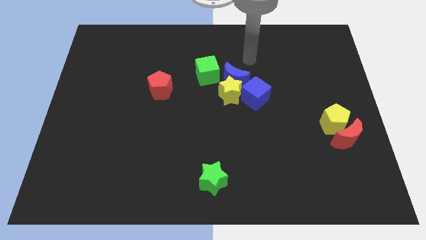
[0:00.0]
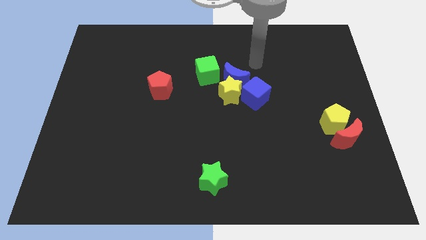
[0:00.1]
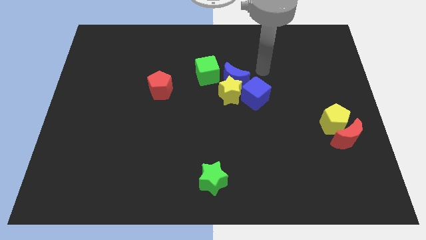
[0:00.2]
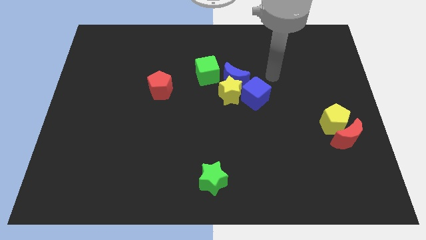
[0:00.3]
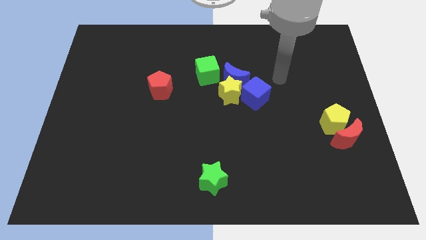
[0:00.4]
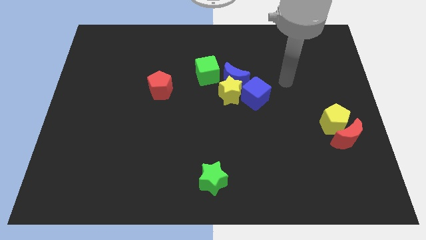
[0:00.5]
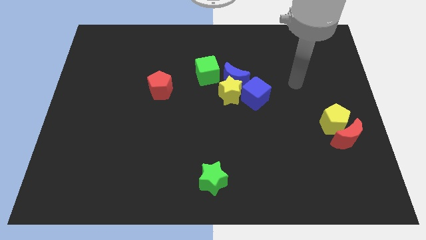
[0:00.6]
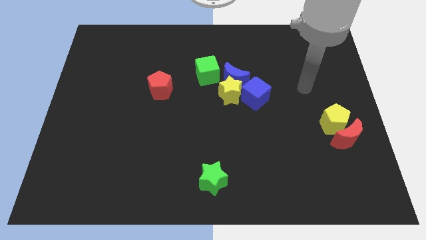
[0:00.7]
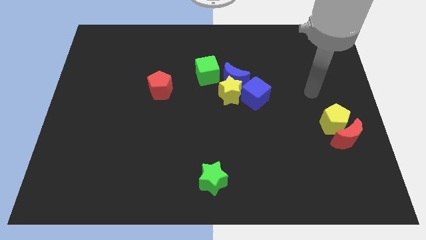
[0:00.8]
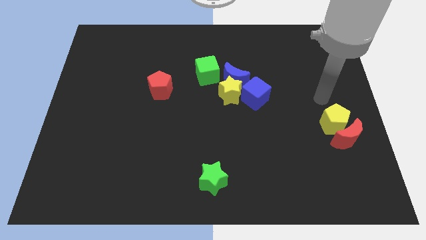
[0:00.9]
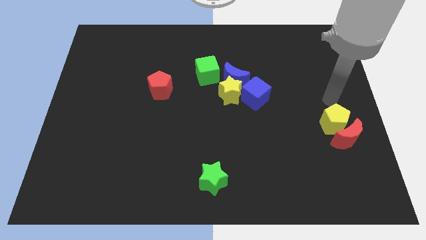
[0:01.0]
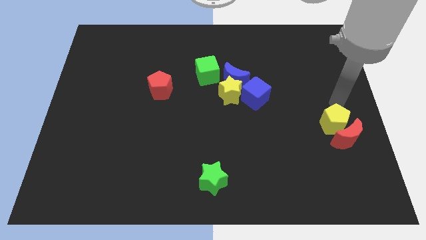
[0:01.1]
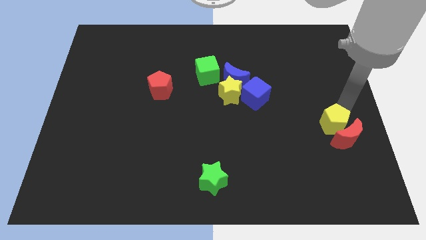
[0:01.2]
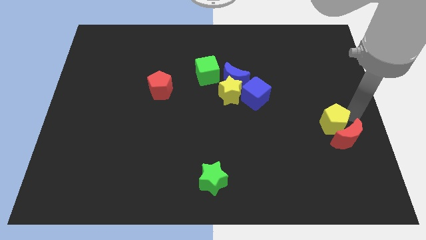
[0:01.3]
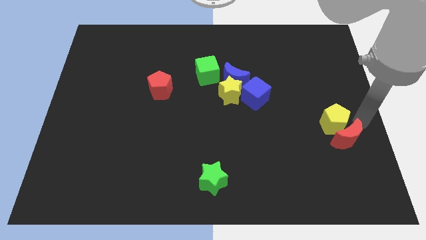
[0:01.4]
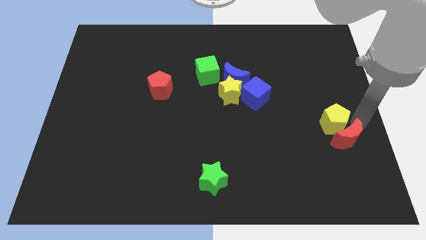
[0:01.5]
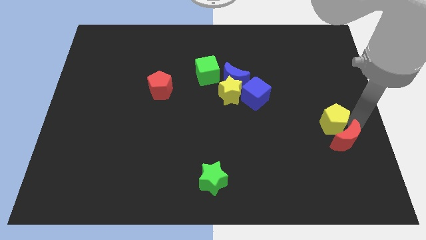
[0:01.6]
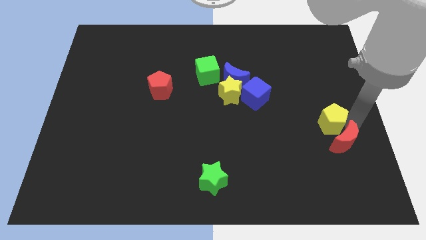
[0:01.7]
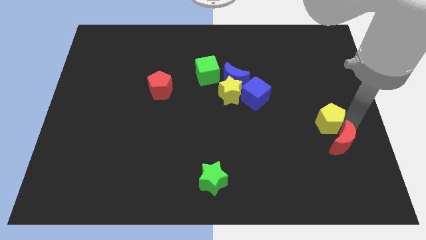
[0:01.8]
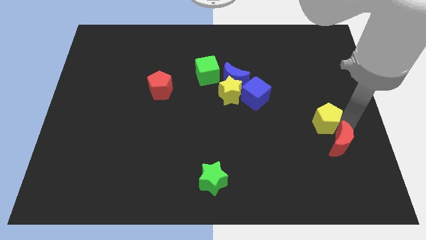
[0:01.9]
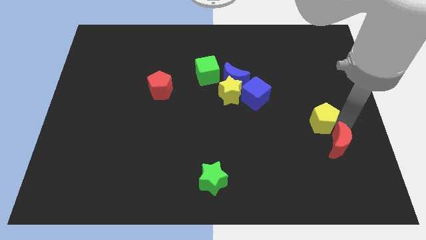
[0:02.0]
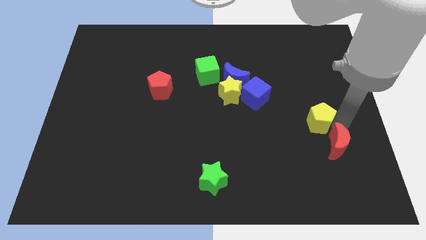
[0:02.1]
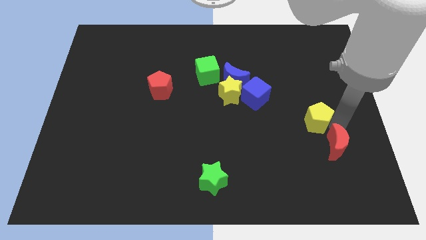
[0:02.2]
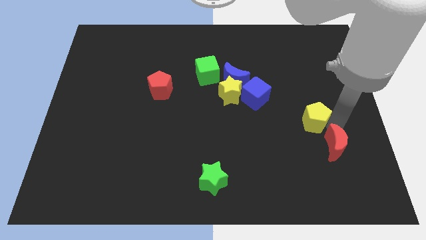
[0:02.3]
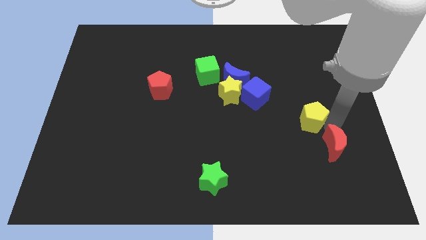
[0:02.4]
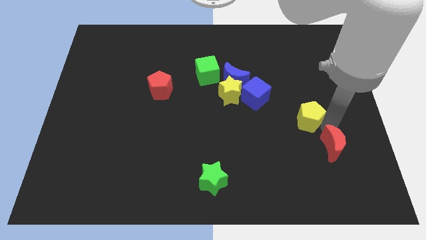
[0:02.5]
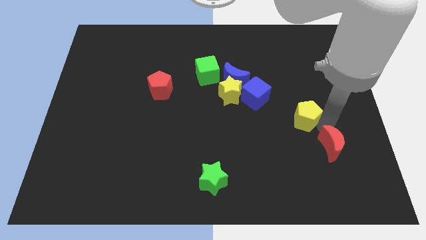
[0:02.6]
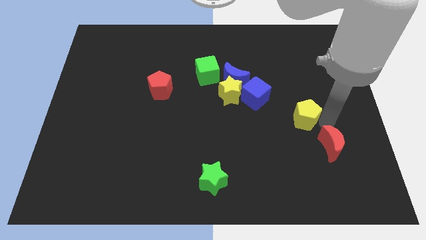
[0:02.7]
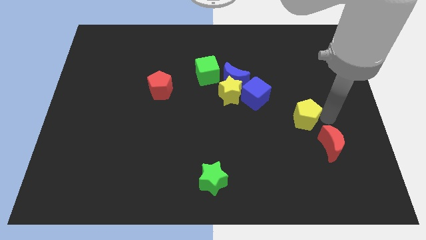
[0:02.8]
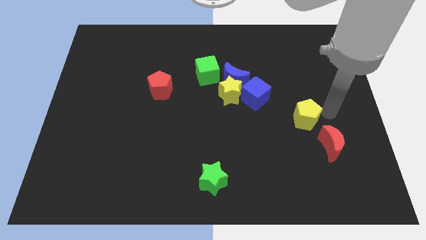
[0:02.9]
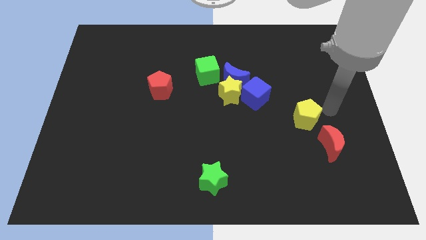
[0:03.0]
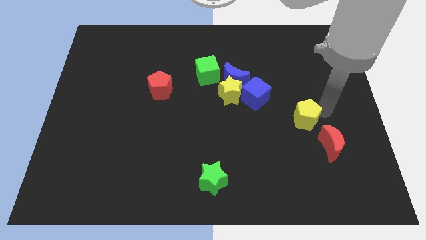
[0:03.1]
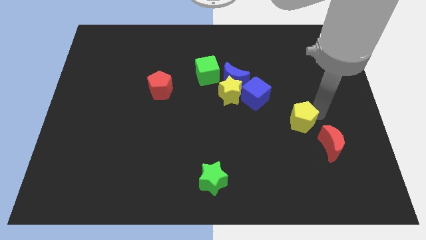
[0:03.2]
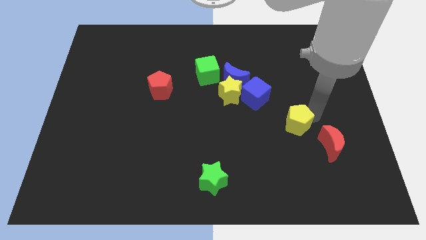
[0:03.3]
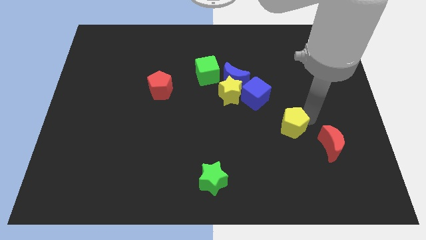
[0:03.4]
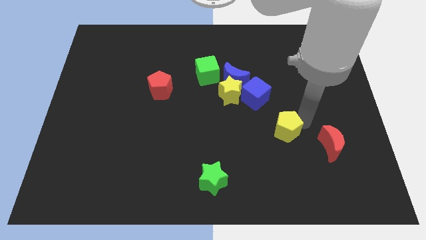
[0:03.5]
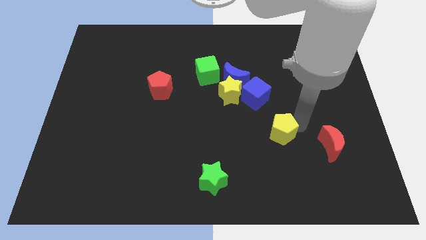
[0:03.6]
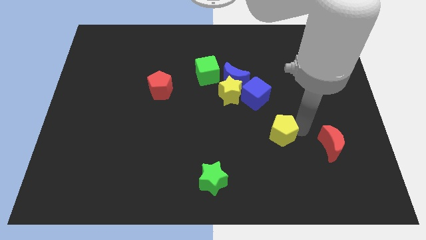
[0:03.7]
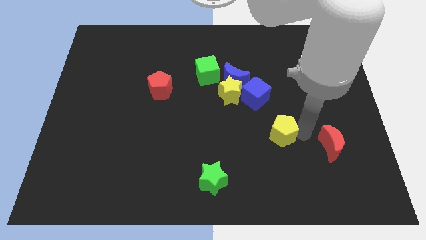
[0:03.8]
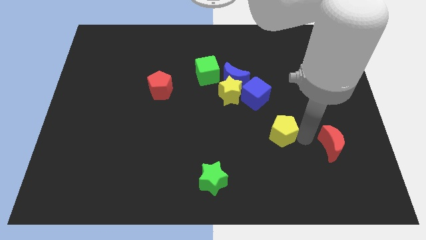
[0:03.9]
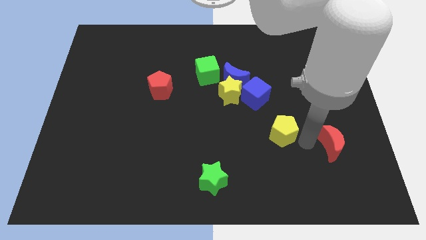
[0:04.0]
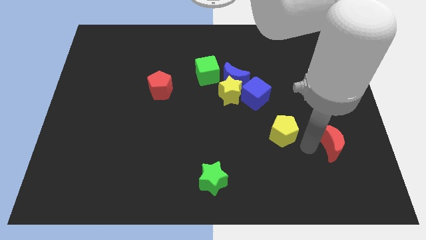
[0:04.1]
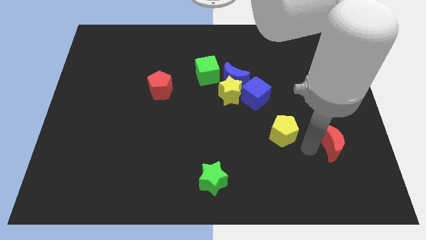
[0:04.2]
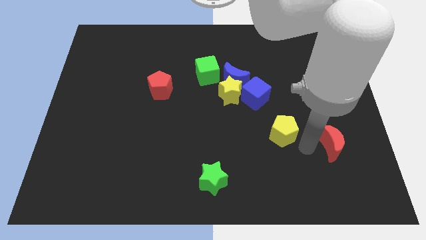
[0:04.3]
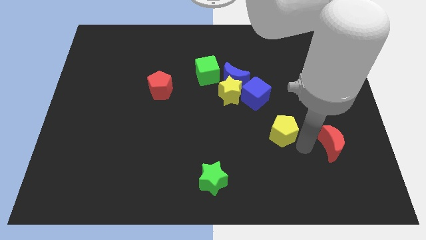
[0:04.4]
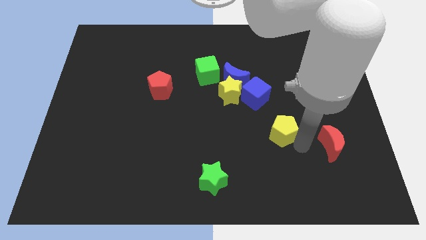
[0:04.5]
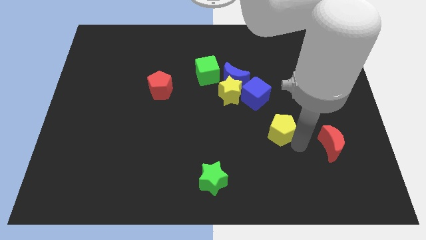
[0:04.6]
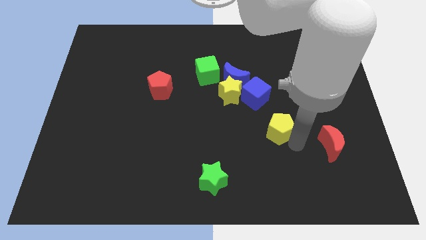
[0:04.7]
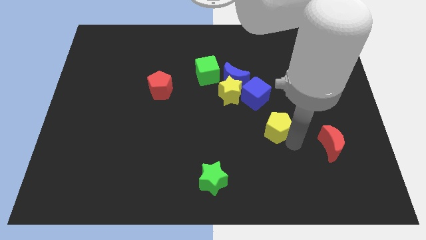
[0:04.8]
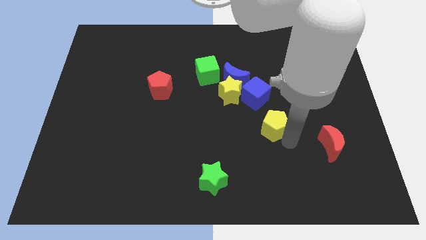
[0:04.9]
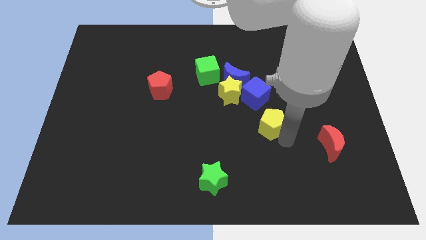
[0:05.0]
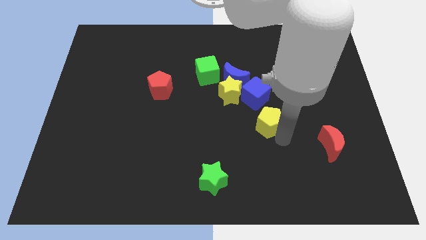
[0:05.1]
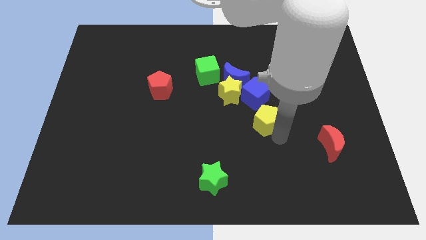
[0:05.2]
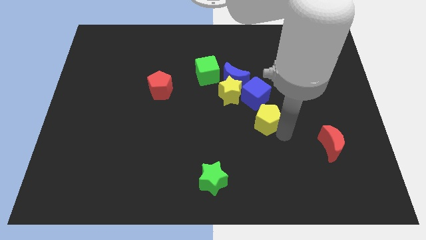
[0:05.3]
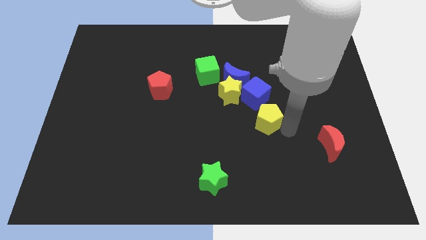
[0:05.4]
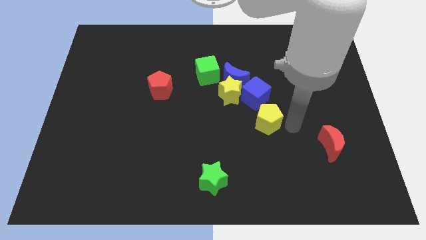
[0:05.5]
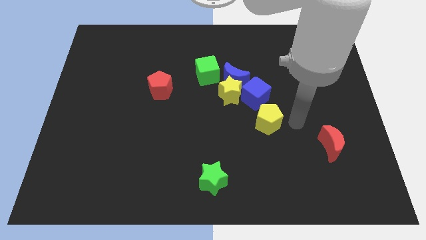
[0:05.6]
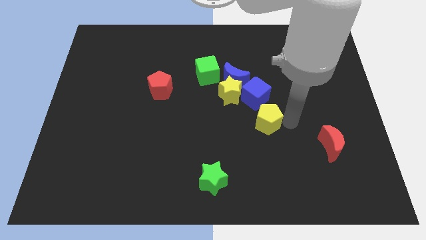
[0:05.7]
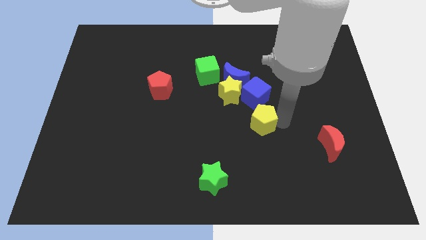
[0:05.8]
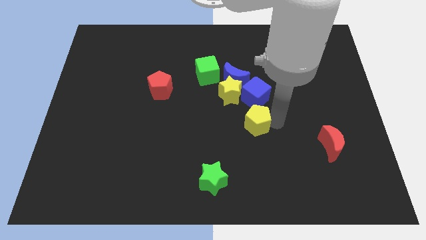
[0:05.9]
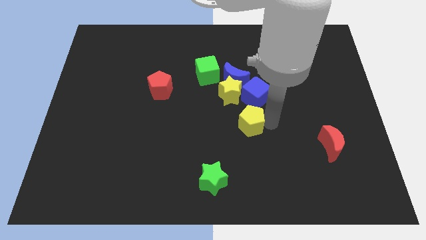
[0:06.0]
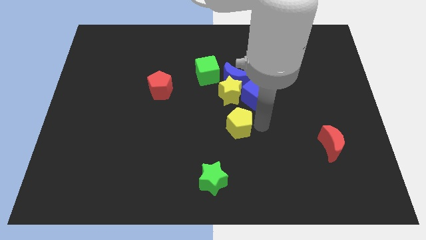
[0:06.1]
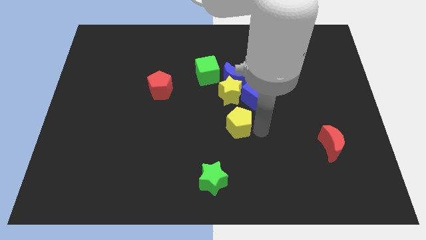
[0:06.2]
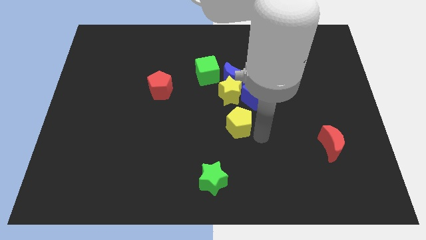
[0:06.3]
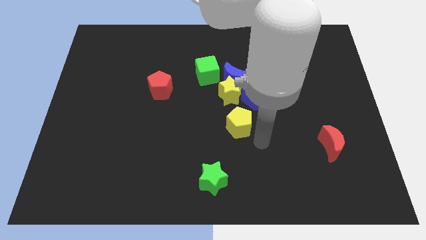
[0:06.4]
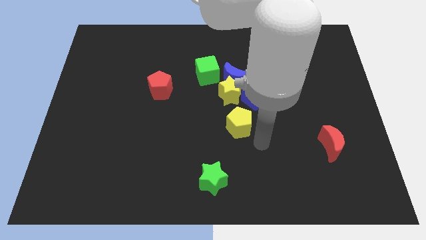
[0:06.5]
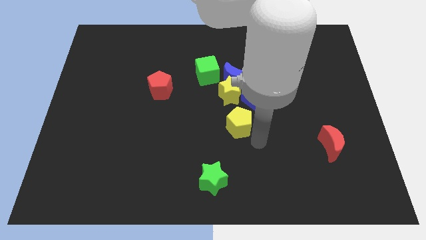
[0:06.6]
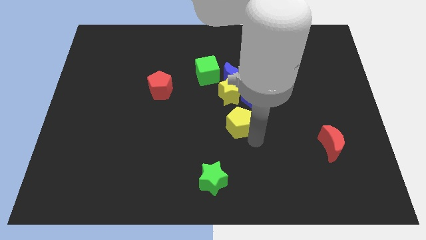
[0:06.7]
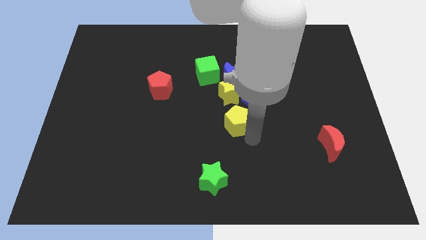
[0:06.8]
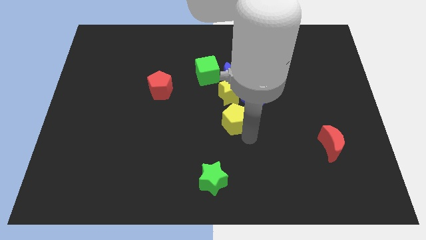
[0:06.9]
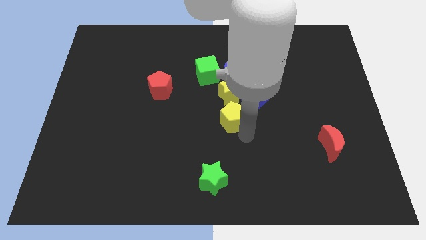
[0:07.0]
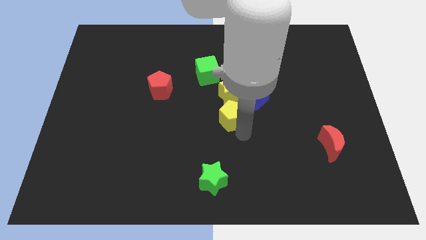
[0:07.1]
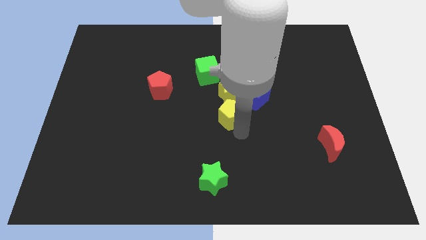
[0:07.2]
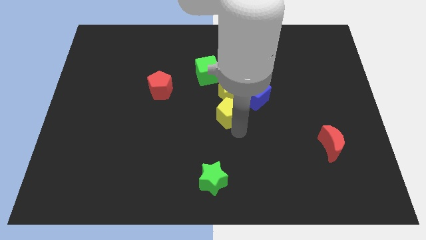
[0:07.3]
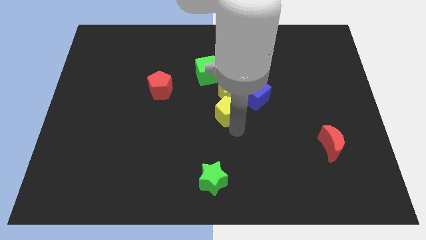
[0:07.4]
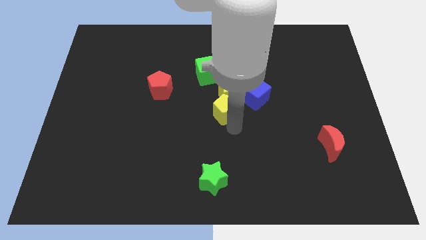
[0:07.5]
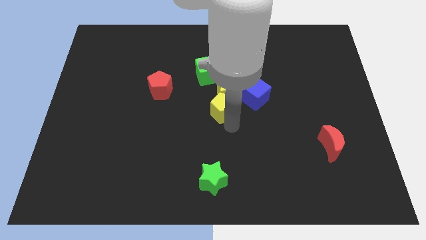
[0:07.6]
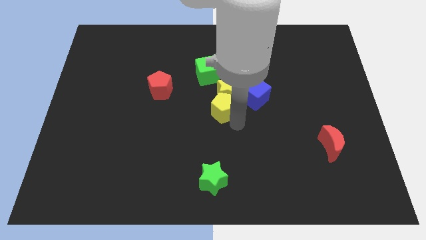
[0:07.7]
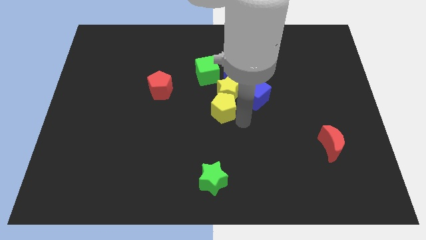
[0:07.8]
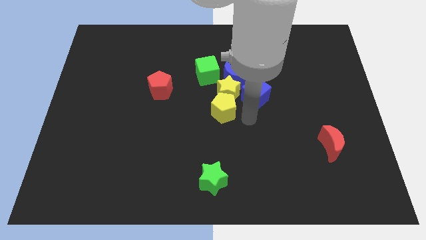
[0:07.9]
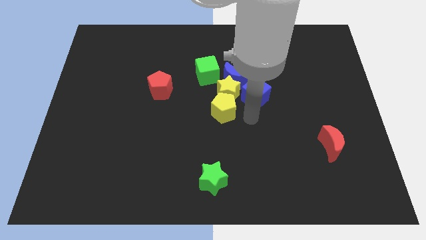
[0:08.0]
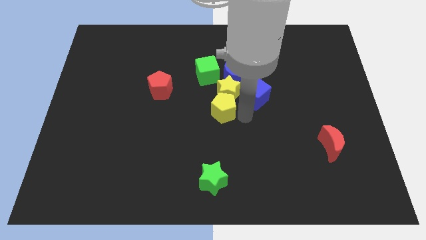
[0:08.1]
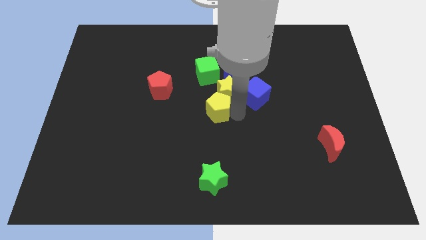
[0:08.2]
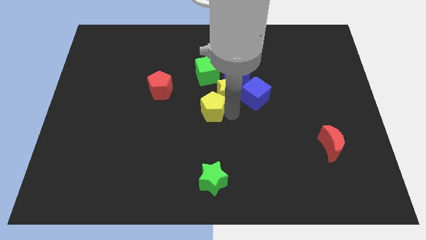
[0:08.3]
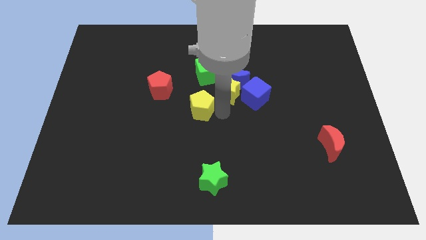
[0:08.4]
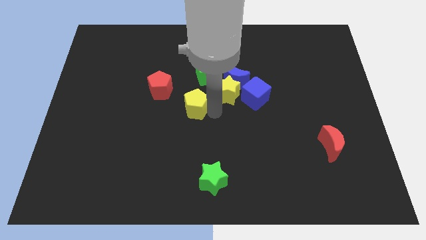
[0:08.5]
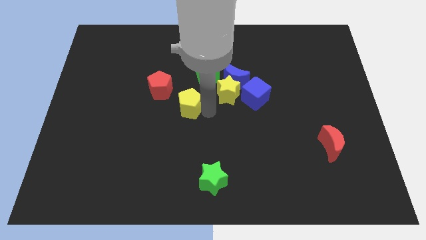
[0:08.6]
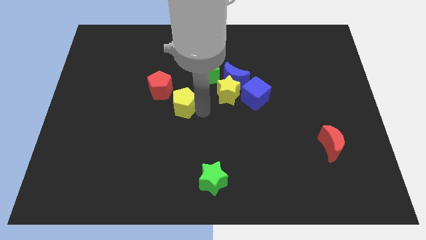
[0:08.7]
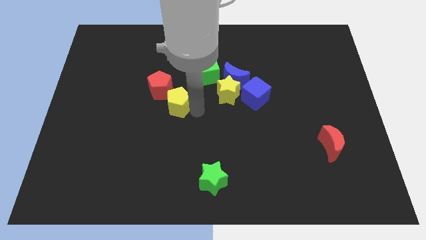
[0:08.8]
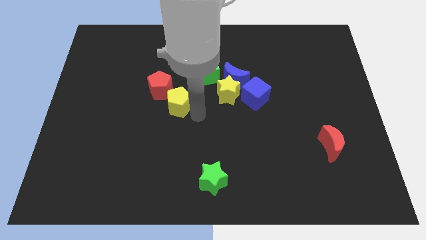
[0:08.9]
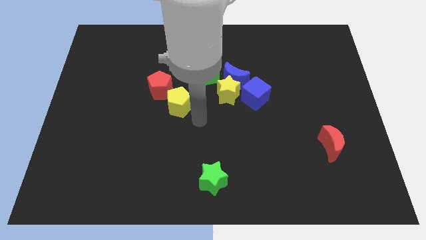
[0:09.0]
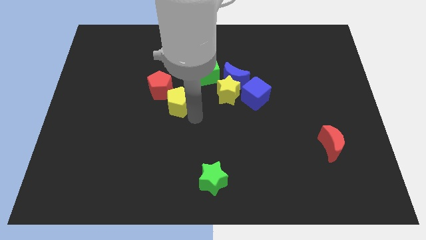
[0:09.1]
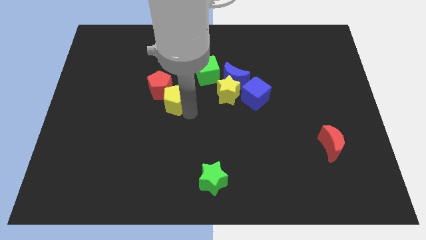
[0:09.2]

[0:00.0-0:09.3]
move the yellow pentagon next to the red pentagon
